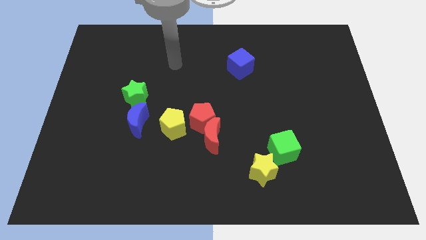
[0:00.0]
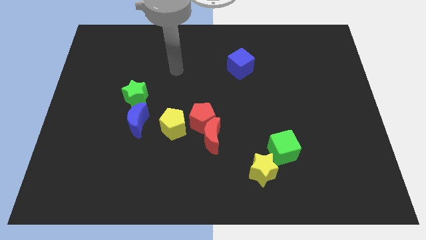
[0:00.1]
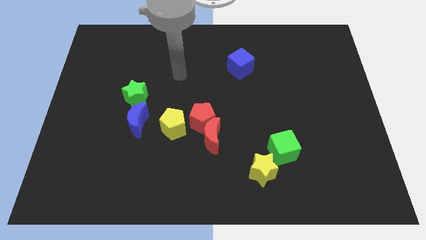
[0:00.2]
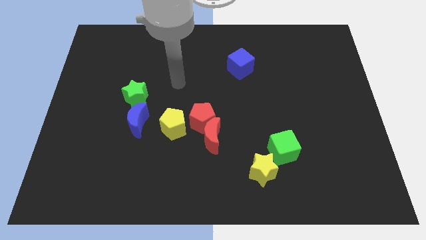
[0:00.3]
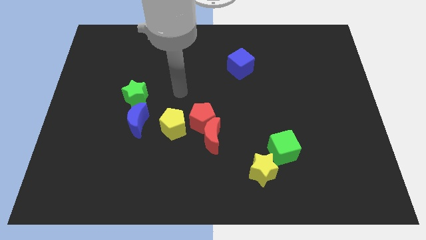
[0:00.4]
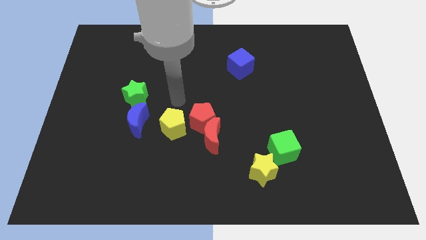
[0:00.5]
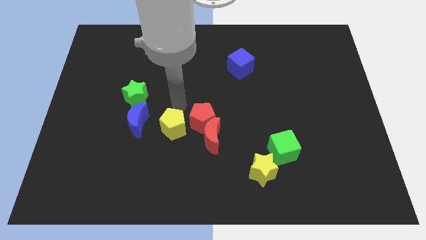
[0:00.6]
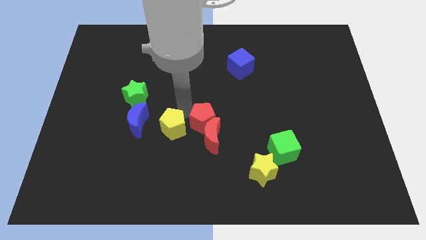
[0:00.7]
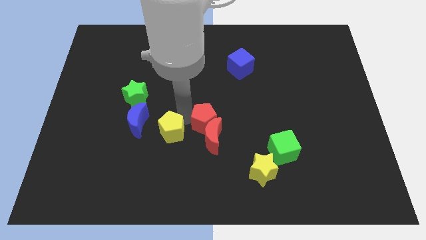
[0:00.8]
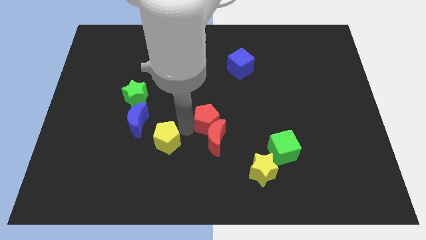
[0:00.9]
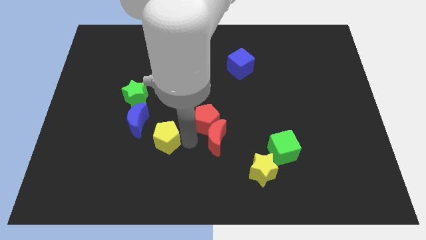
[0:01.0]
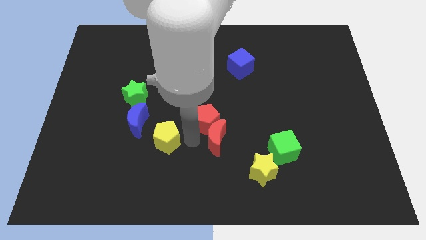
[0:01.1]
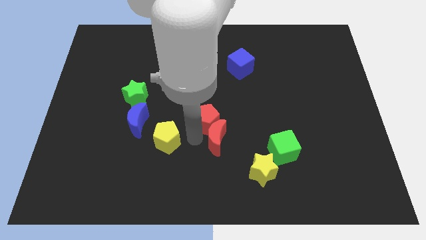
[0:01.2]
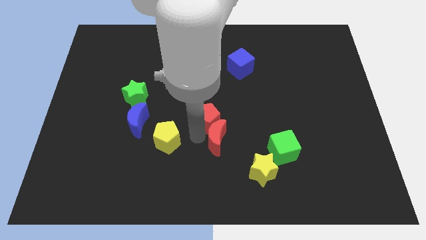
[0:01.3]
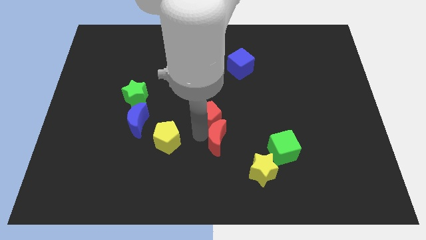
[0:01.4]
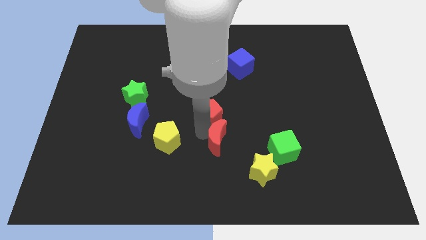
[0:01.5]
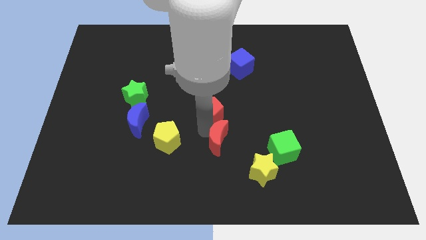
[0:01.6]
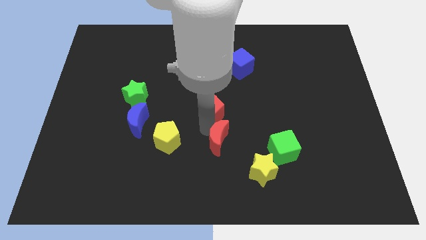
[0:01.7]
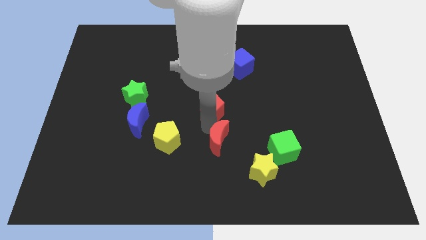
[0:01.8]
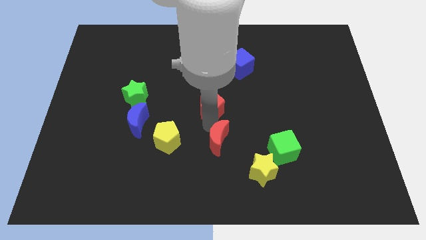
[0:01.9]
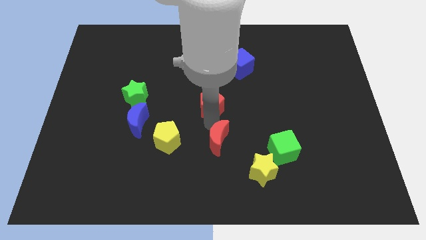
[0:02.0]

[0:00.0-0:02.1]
move the red pentagon away from the red moon and yellow pentagon

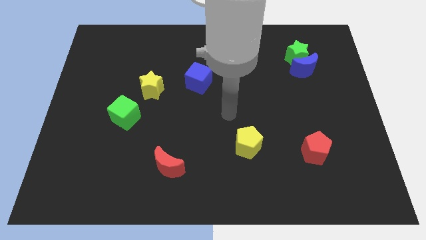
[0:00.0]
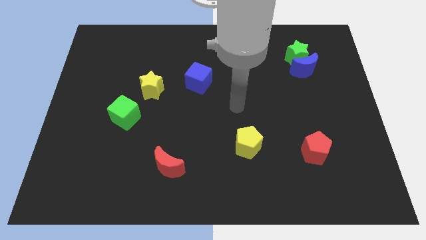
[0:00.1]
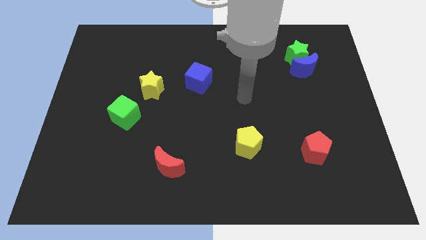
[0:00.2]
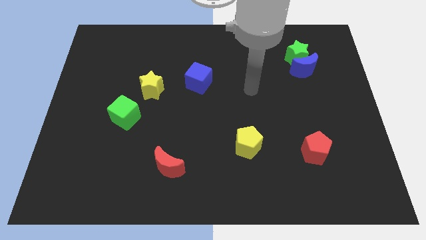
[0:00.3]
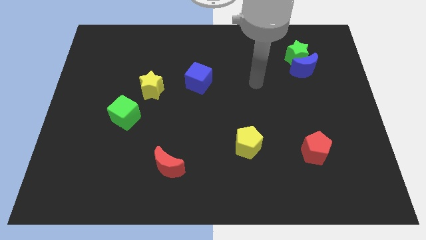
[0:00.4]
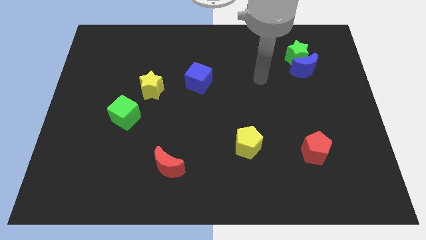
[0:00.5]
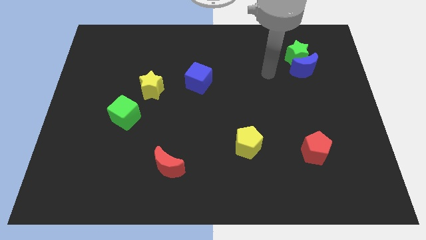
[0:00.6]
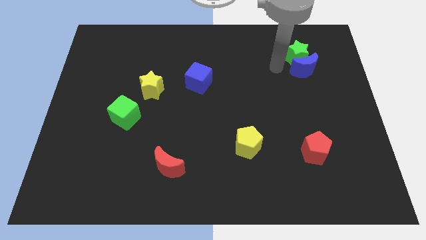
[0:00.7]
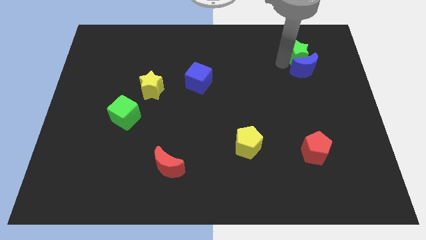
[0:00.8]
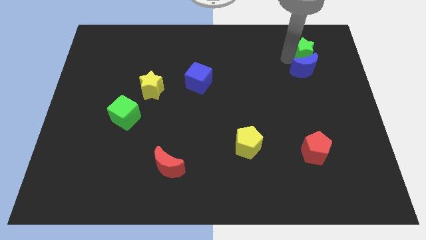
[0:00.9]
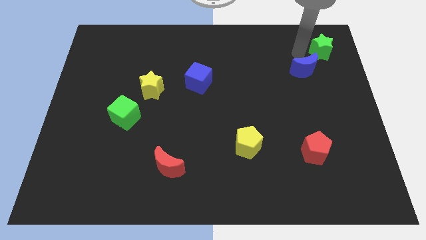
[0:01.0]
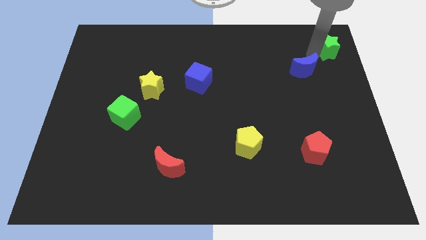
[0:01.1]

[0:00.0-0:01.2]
pull the blue moon apart from the green star

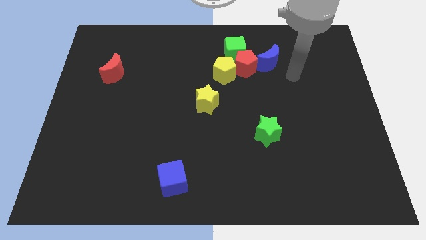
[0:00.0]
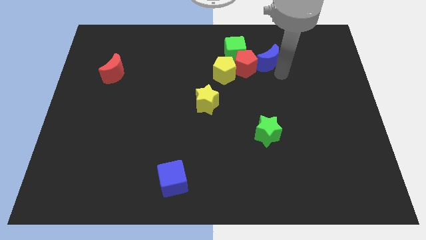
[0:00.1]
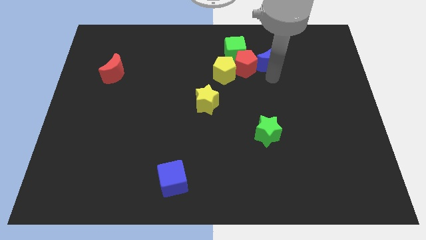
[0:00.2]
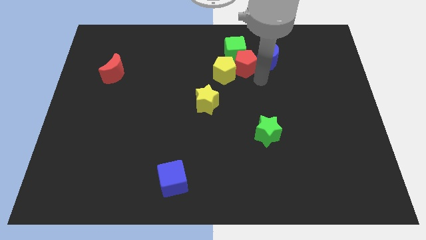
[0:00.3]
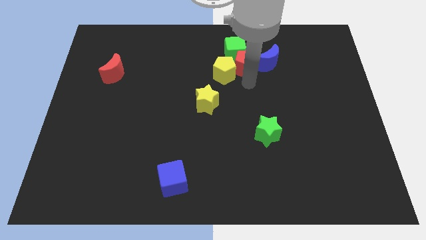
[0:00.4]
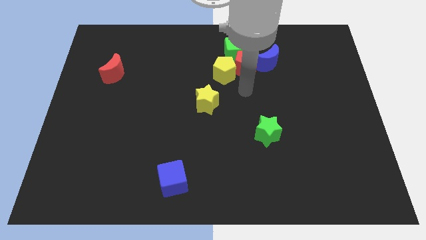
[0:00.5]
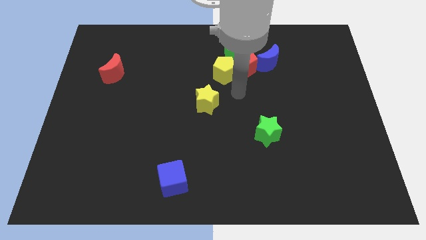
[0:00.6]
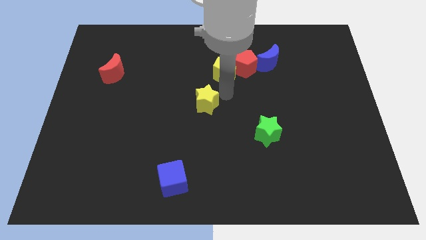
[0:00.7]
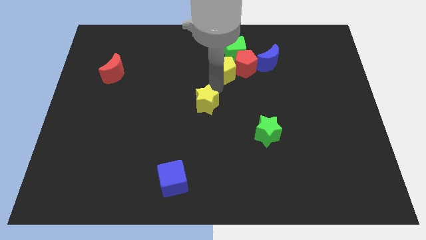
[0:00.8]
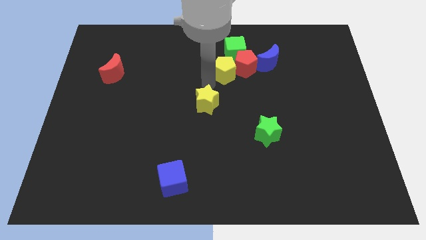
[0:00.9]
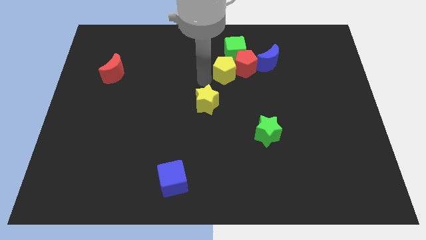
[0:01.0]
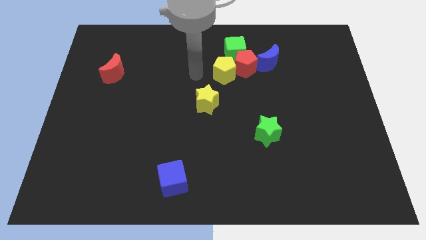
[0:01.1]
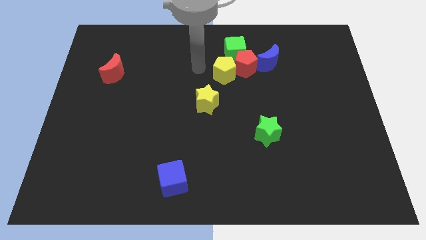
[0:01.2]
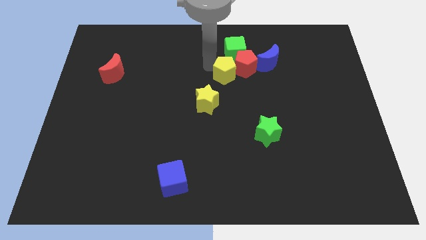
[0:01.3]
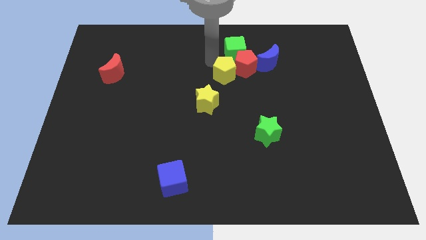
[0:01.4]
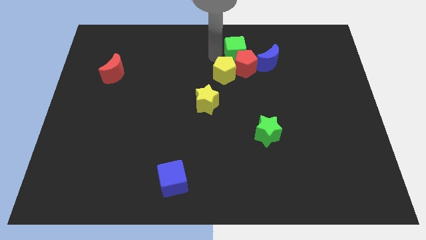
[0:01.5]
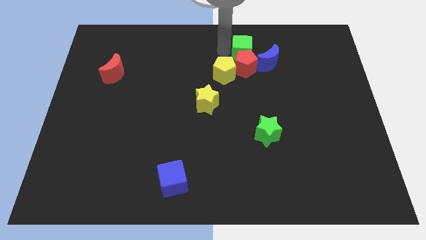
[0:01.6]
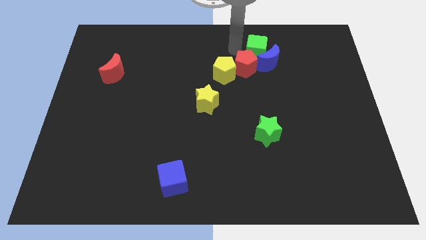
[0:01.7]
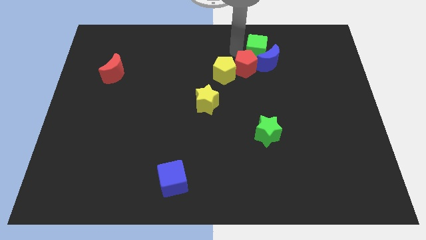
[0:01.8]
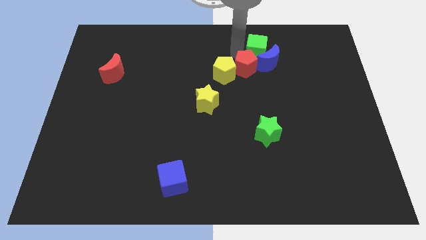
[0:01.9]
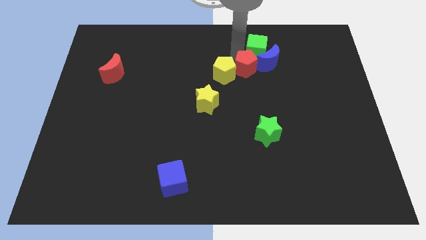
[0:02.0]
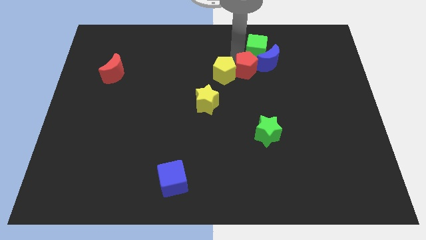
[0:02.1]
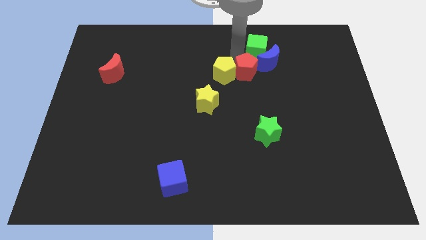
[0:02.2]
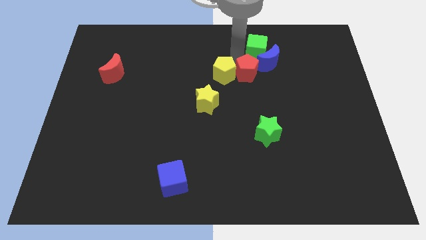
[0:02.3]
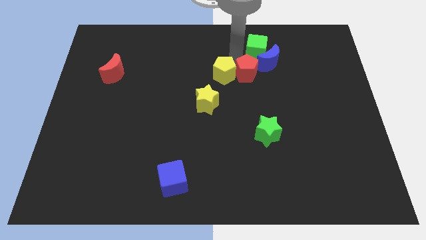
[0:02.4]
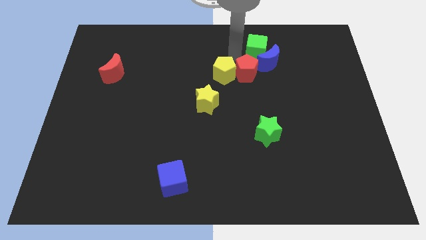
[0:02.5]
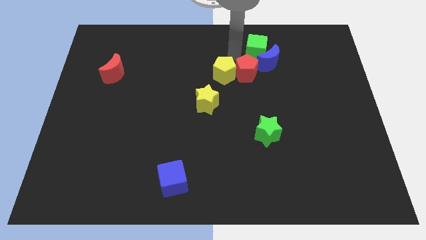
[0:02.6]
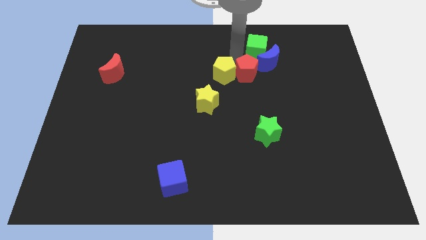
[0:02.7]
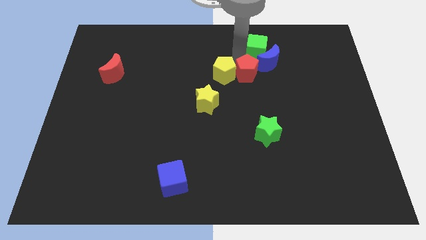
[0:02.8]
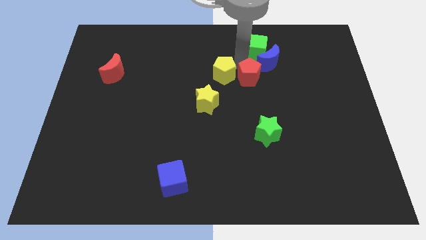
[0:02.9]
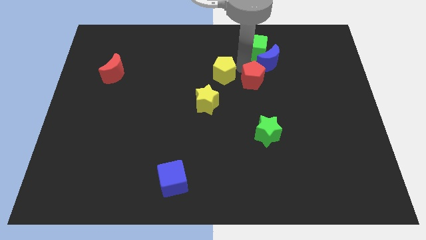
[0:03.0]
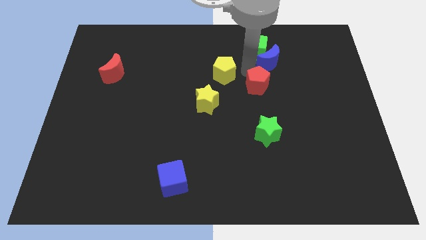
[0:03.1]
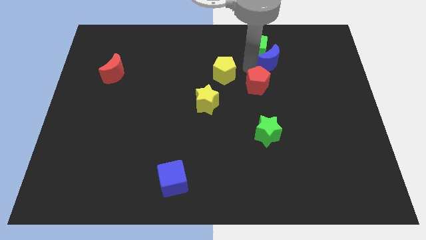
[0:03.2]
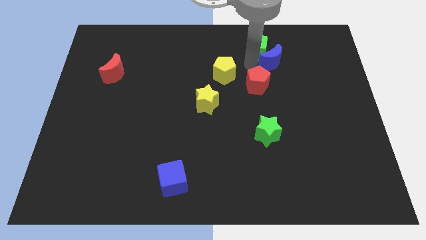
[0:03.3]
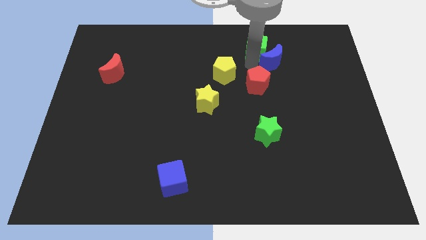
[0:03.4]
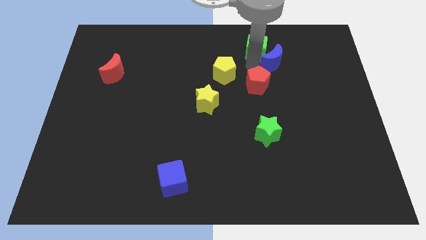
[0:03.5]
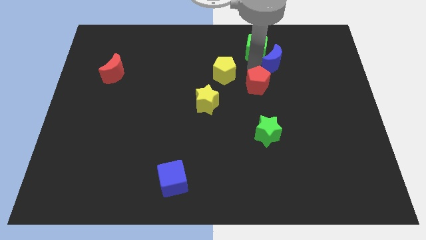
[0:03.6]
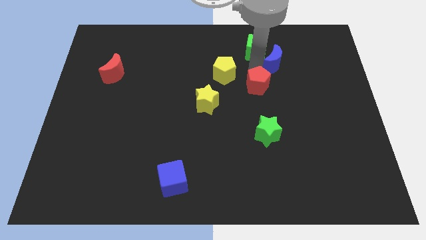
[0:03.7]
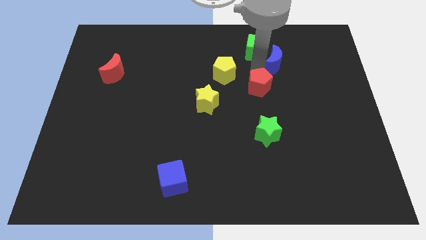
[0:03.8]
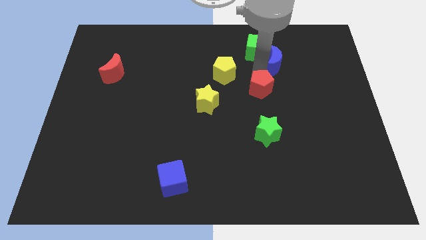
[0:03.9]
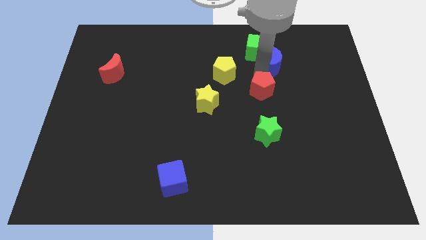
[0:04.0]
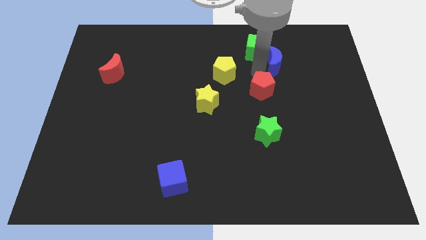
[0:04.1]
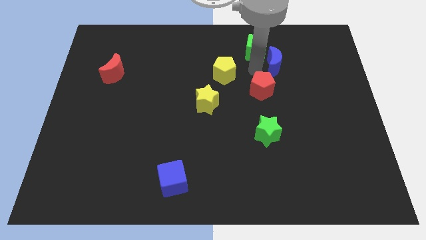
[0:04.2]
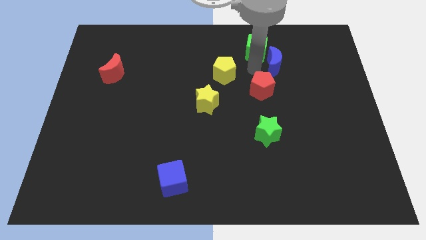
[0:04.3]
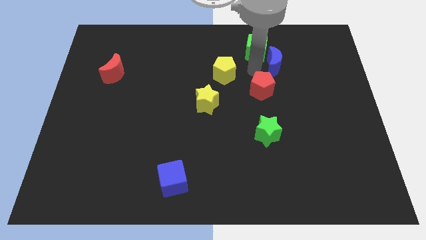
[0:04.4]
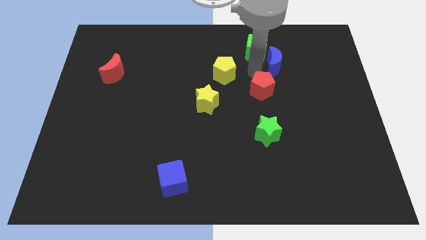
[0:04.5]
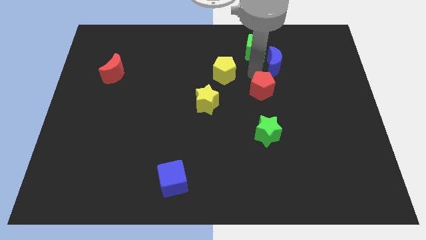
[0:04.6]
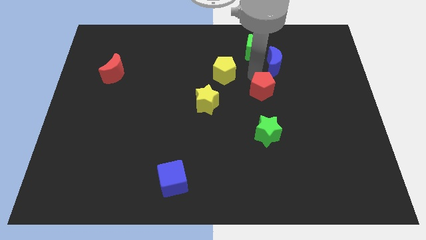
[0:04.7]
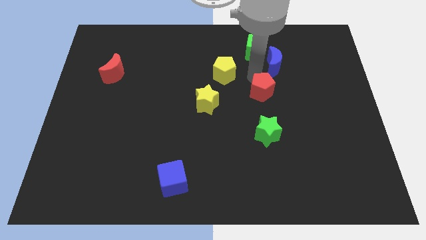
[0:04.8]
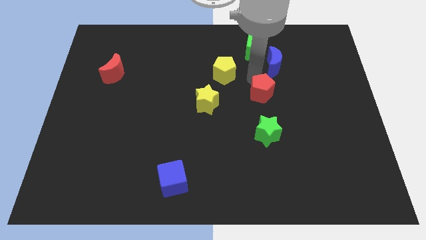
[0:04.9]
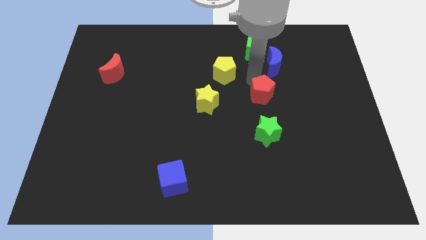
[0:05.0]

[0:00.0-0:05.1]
pull the red pentagon apart from the green cube, yellow pentagon, and blue moon

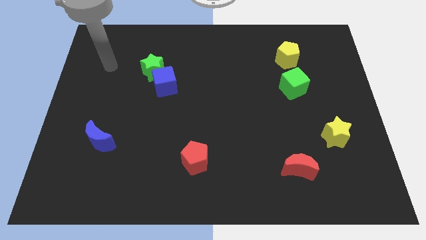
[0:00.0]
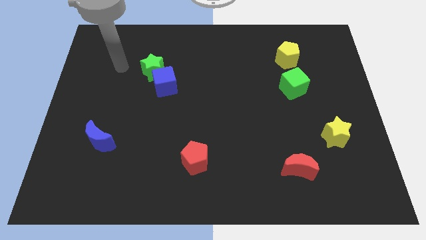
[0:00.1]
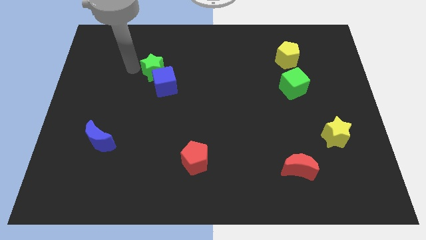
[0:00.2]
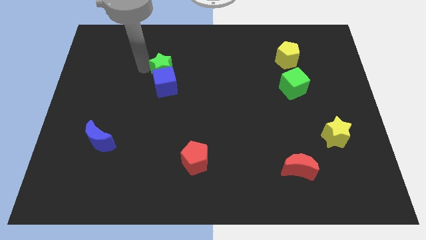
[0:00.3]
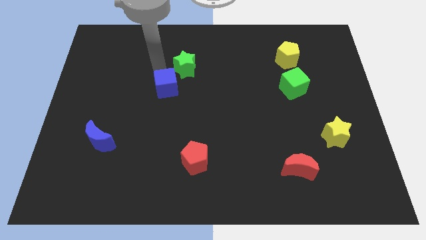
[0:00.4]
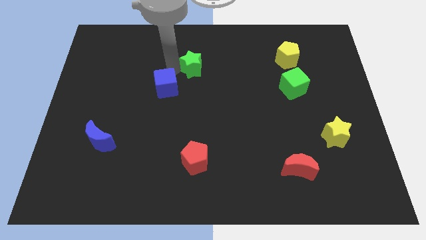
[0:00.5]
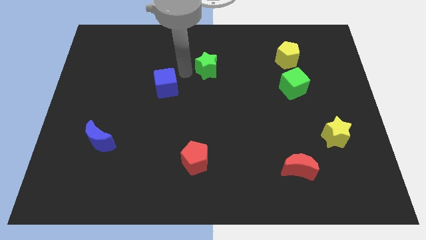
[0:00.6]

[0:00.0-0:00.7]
move the blue cube away from the green star

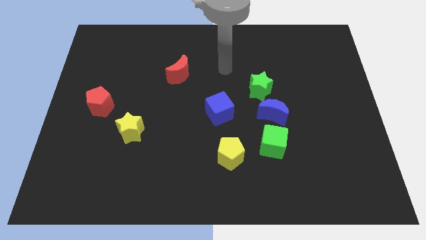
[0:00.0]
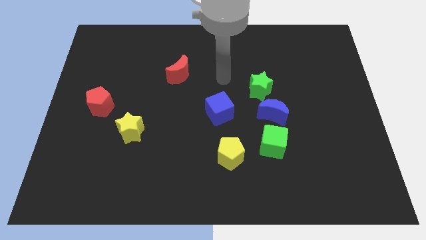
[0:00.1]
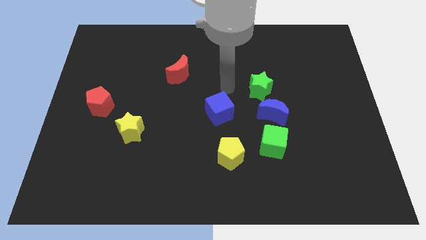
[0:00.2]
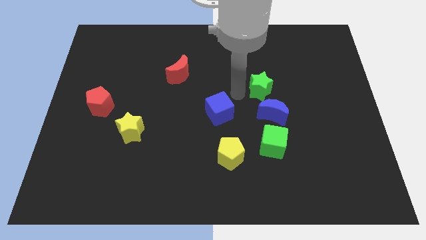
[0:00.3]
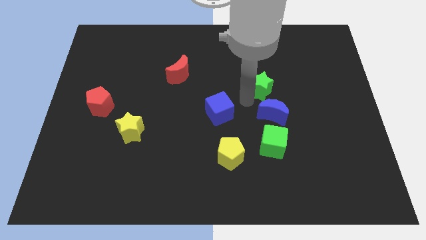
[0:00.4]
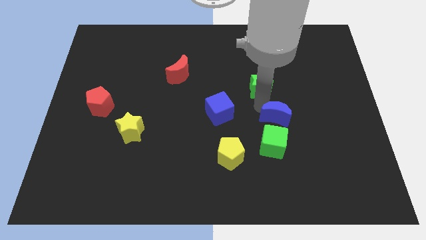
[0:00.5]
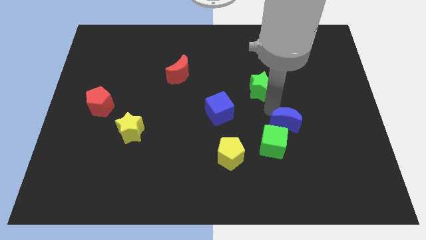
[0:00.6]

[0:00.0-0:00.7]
pull the green star apart from the blue moon
